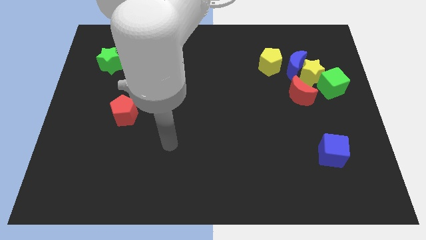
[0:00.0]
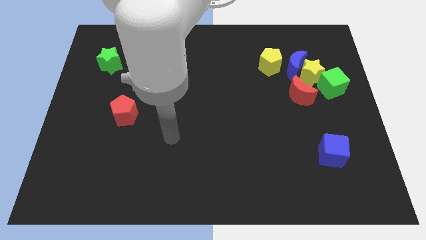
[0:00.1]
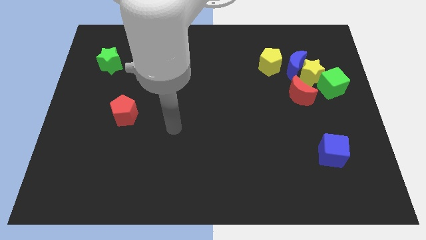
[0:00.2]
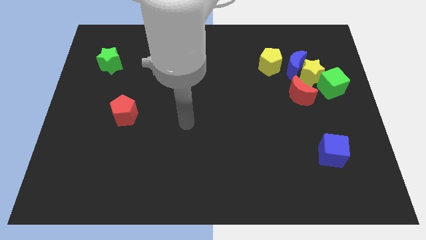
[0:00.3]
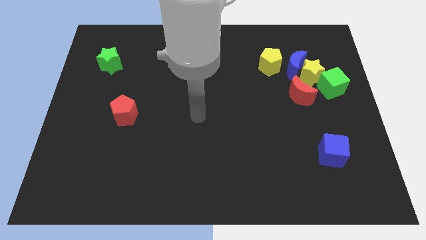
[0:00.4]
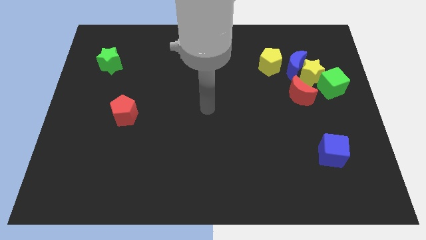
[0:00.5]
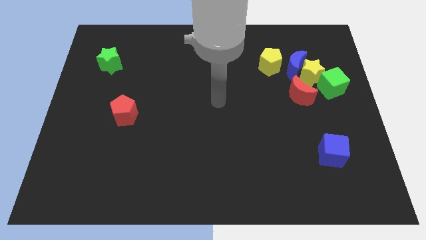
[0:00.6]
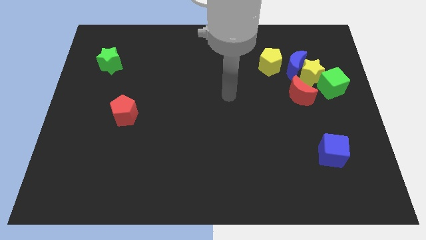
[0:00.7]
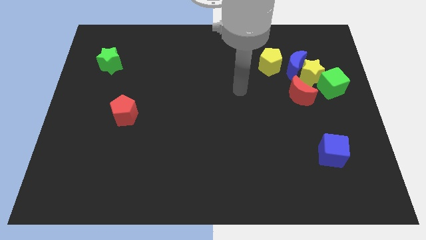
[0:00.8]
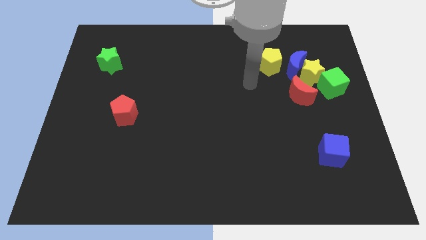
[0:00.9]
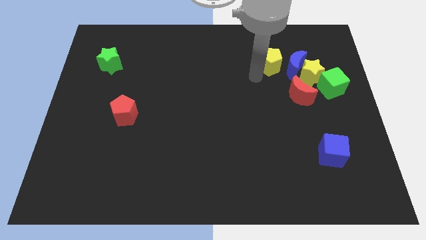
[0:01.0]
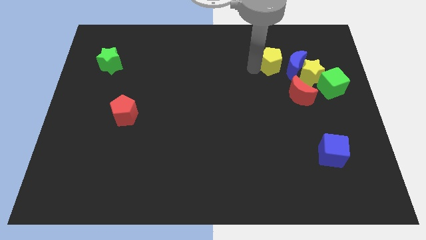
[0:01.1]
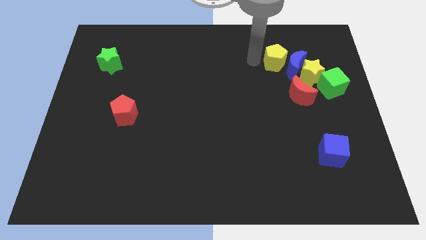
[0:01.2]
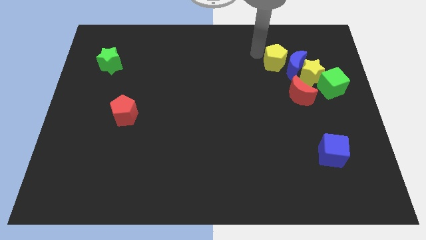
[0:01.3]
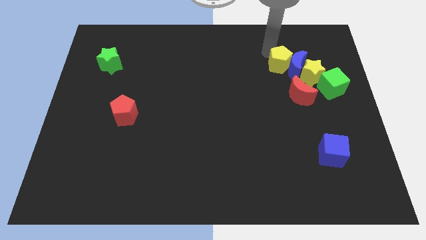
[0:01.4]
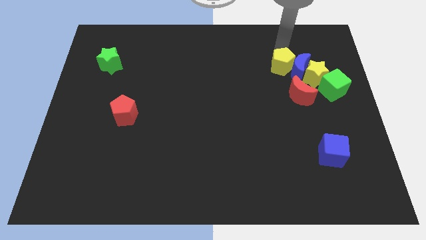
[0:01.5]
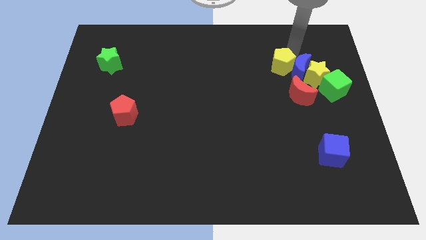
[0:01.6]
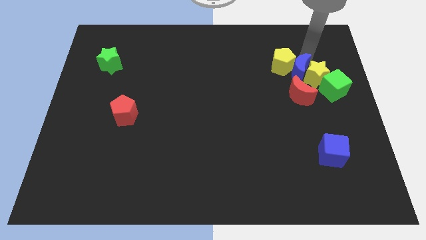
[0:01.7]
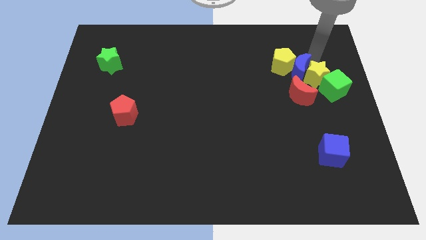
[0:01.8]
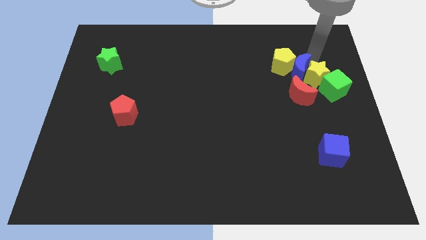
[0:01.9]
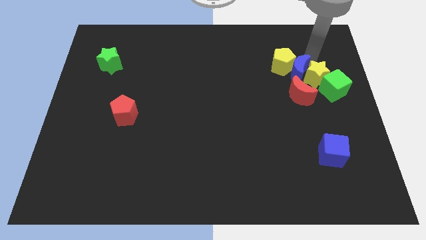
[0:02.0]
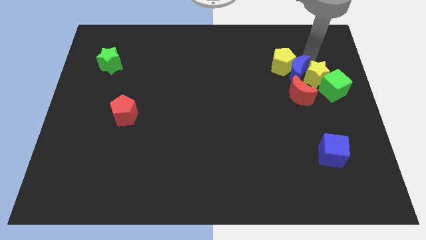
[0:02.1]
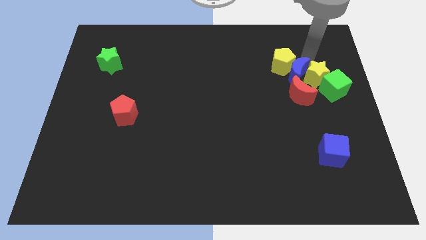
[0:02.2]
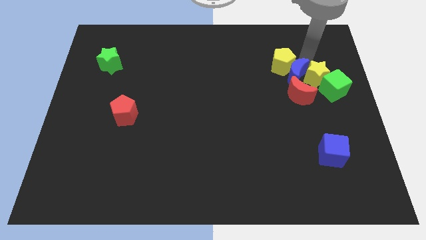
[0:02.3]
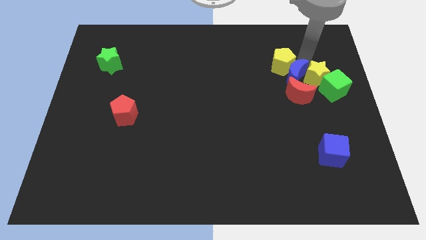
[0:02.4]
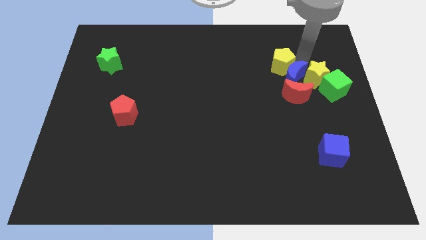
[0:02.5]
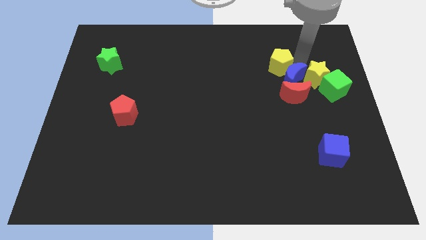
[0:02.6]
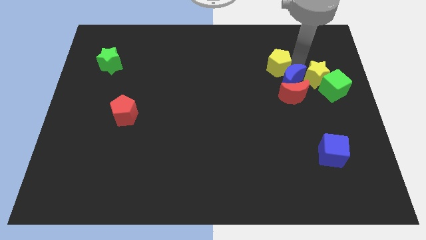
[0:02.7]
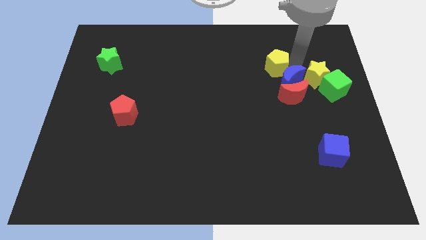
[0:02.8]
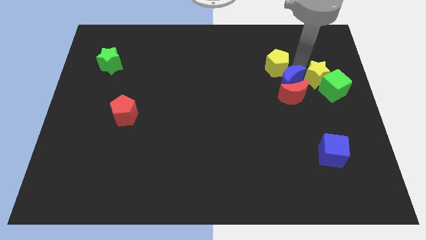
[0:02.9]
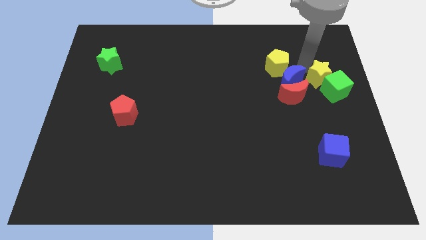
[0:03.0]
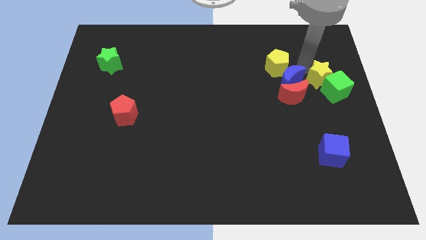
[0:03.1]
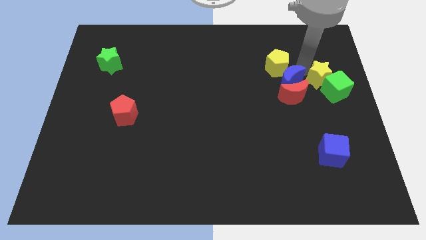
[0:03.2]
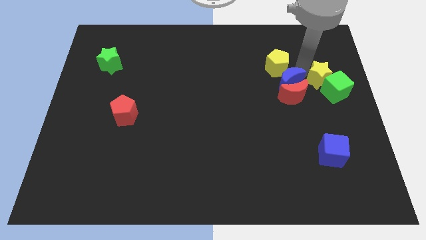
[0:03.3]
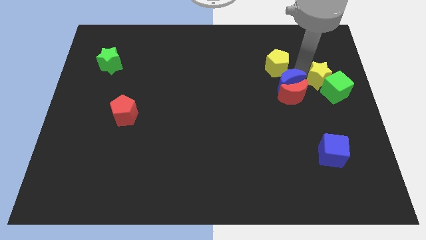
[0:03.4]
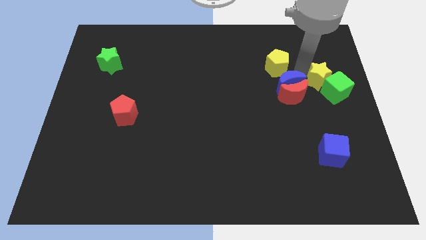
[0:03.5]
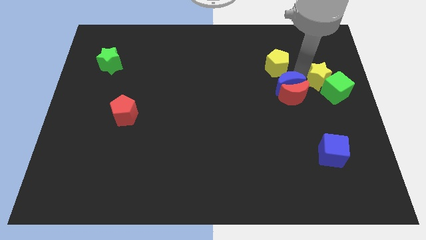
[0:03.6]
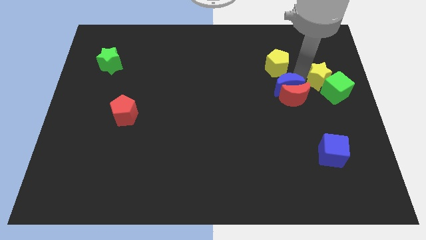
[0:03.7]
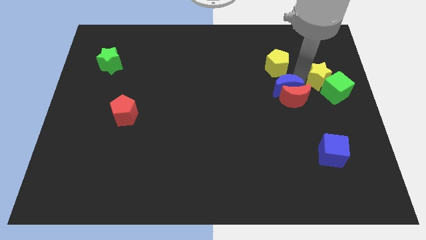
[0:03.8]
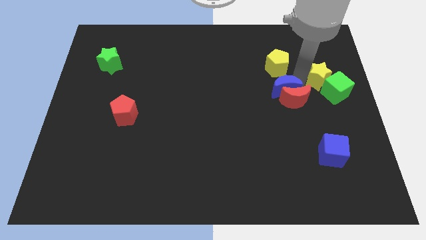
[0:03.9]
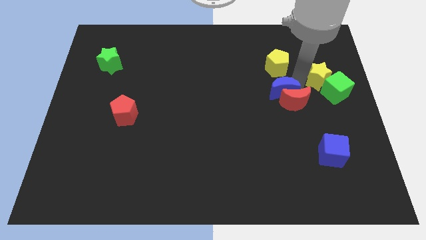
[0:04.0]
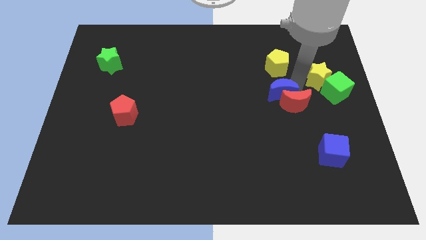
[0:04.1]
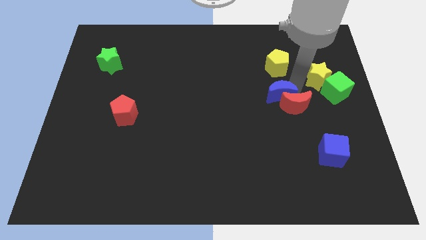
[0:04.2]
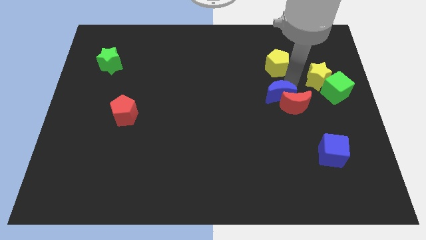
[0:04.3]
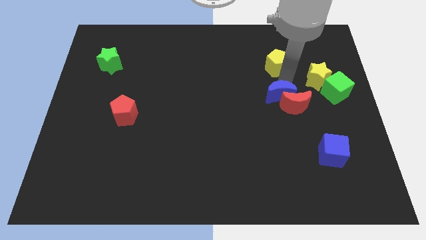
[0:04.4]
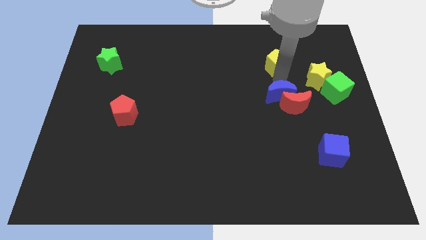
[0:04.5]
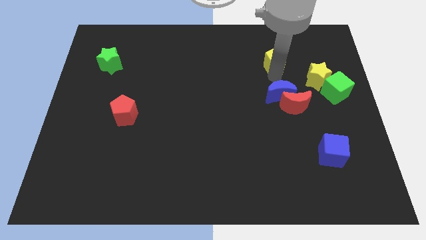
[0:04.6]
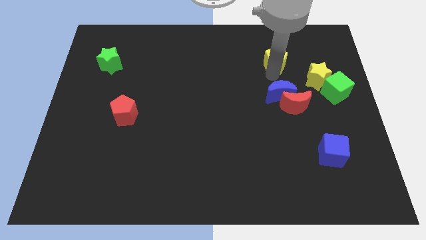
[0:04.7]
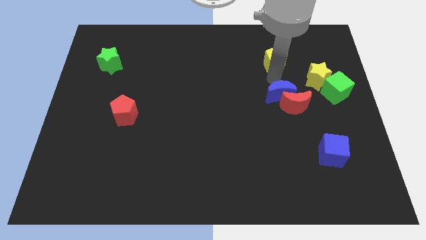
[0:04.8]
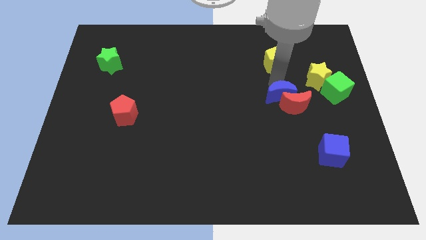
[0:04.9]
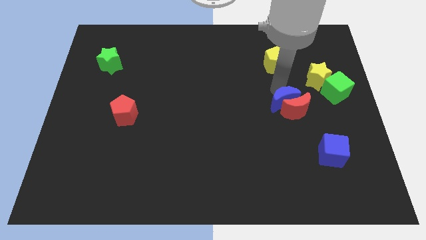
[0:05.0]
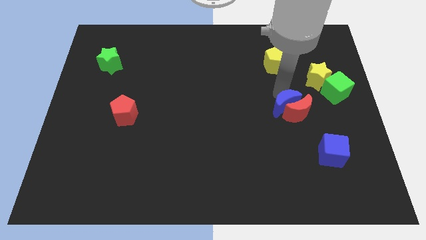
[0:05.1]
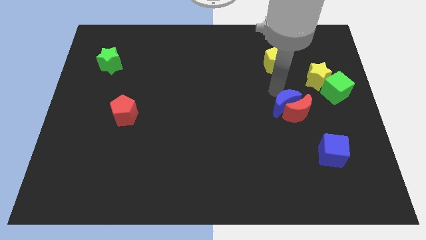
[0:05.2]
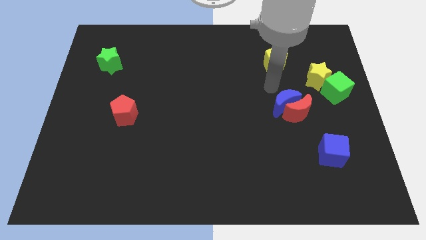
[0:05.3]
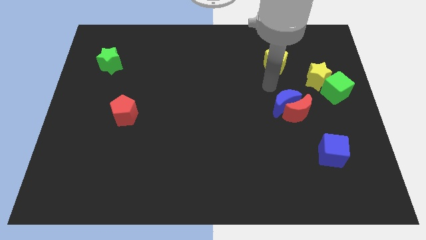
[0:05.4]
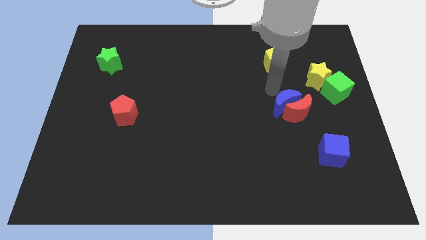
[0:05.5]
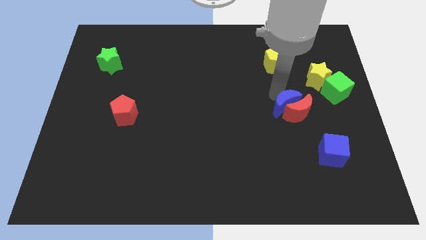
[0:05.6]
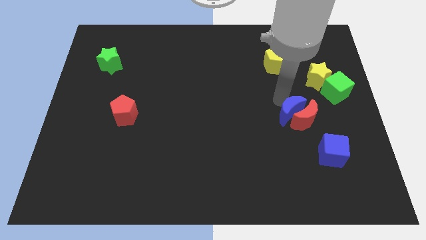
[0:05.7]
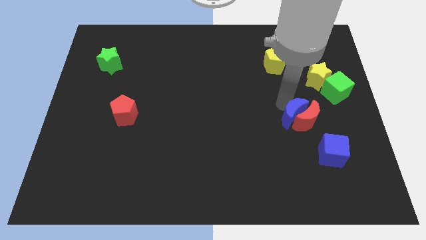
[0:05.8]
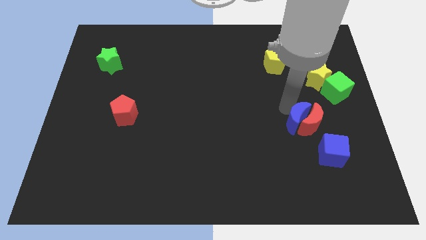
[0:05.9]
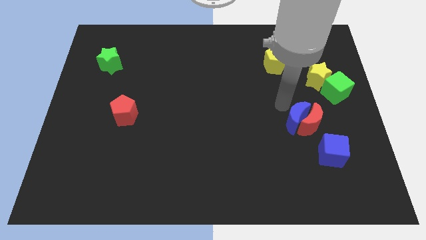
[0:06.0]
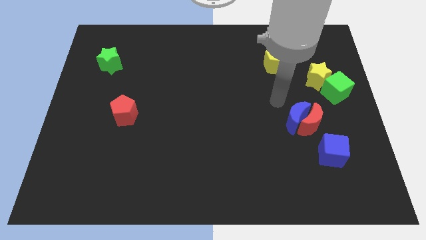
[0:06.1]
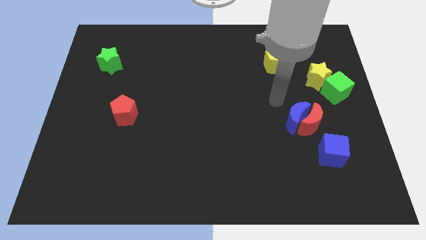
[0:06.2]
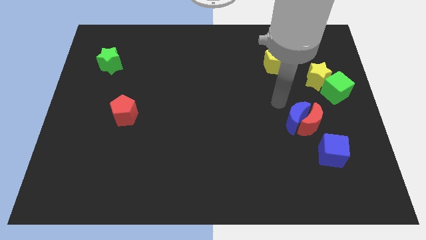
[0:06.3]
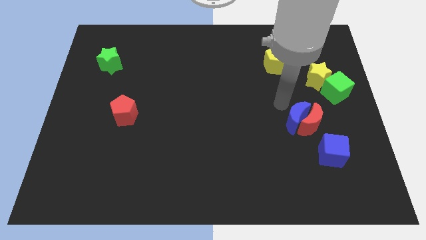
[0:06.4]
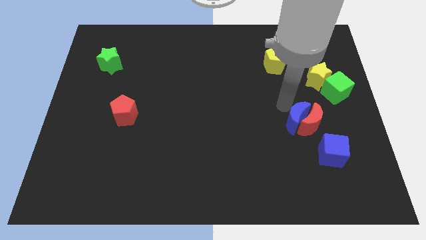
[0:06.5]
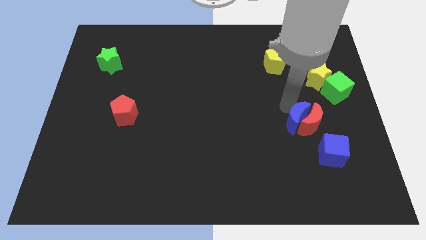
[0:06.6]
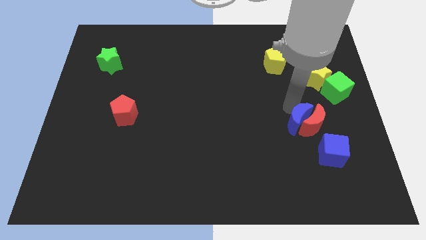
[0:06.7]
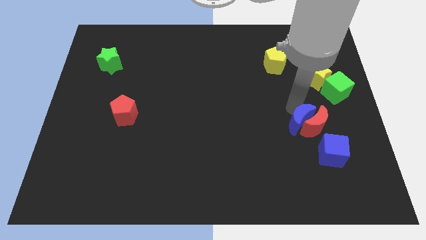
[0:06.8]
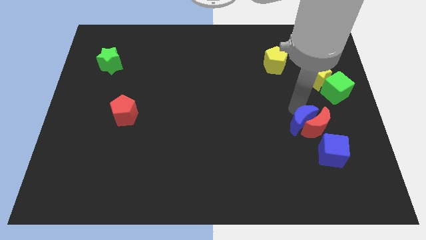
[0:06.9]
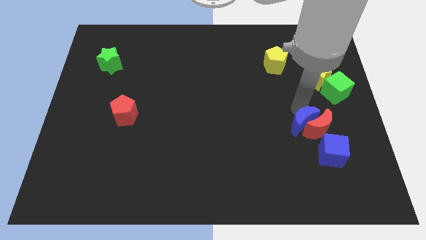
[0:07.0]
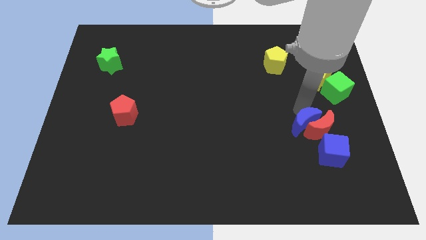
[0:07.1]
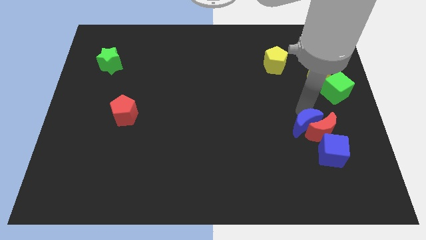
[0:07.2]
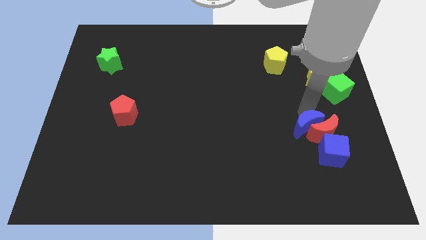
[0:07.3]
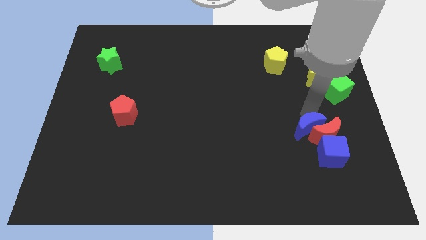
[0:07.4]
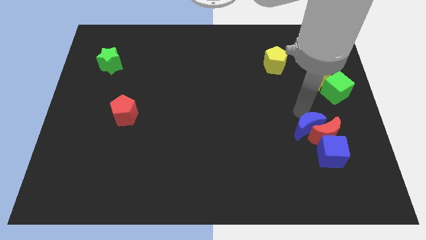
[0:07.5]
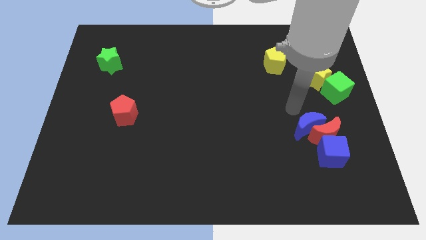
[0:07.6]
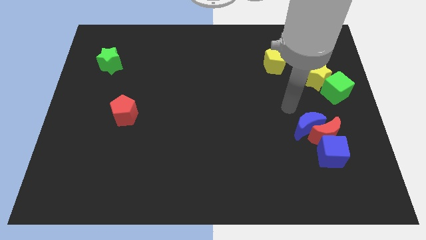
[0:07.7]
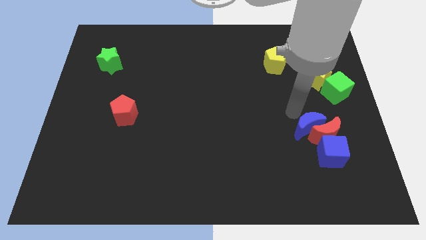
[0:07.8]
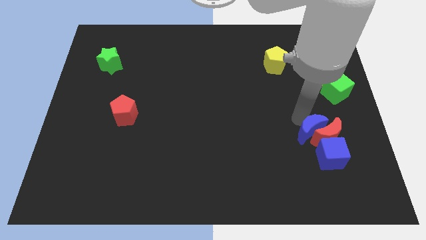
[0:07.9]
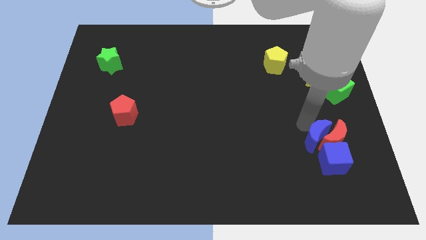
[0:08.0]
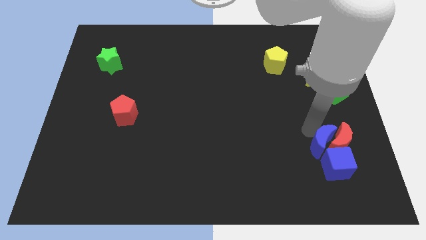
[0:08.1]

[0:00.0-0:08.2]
put the blue moon to the blue cube
